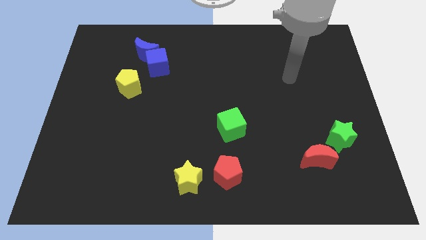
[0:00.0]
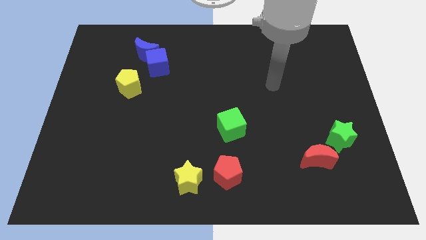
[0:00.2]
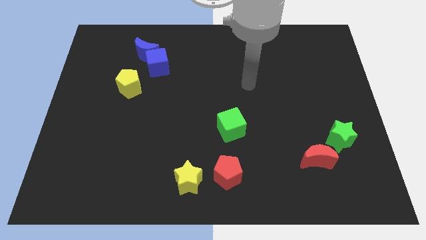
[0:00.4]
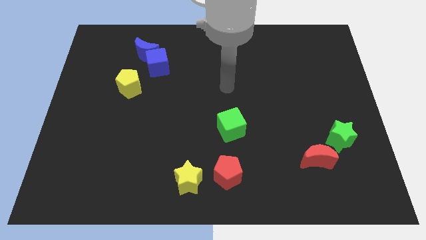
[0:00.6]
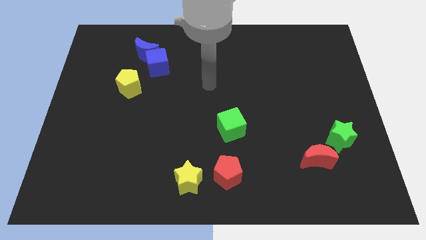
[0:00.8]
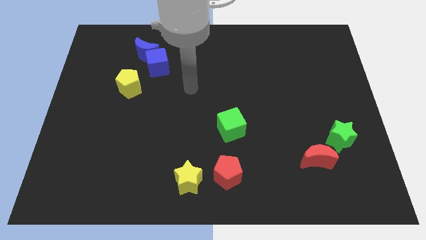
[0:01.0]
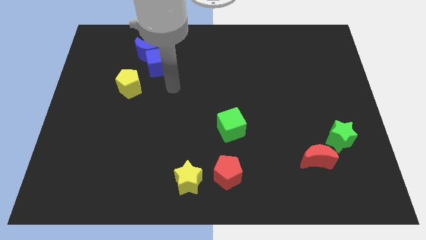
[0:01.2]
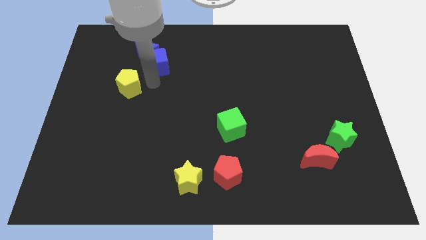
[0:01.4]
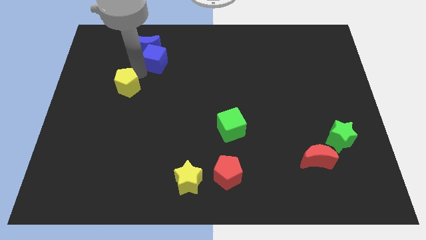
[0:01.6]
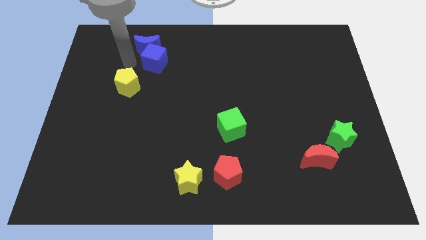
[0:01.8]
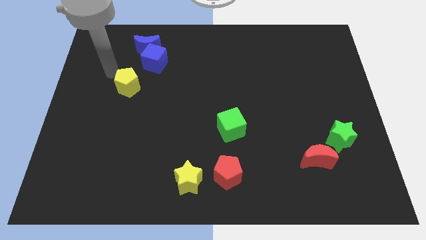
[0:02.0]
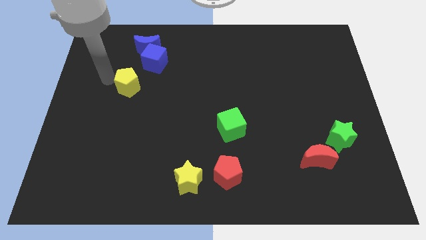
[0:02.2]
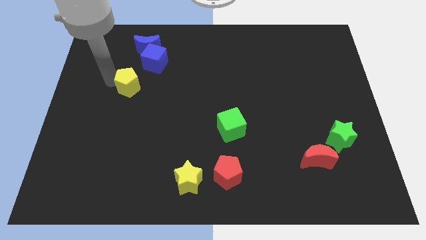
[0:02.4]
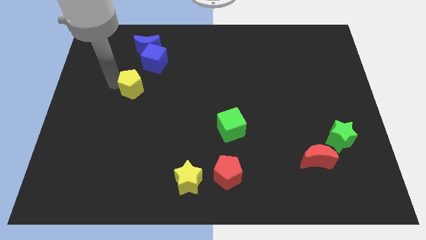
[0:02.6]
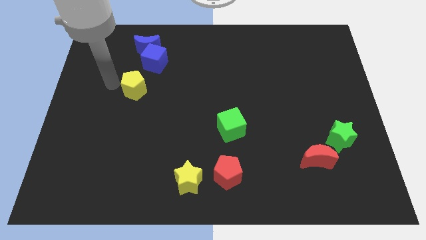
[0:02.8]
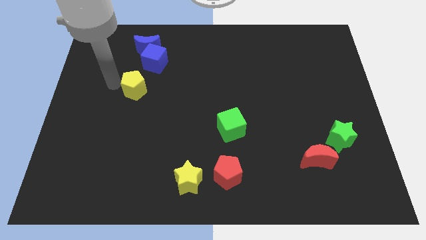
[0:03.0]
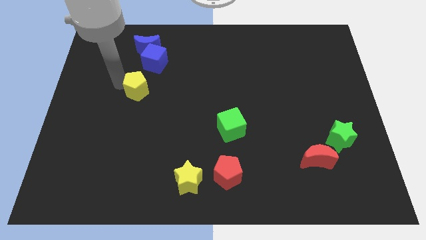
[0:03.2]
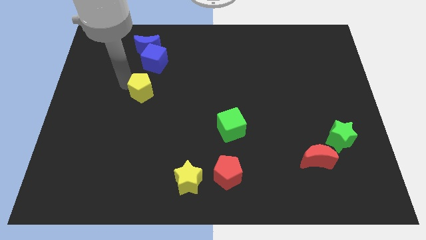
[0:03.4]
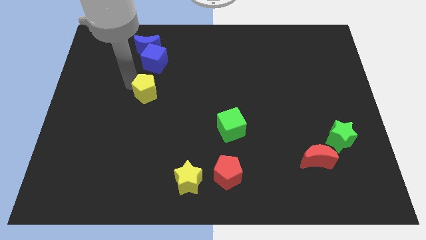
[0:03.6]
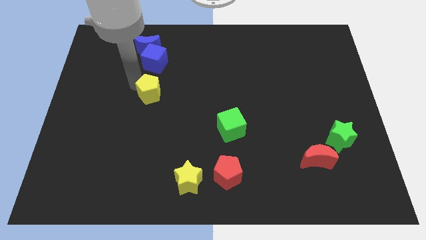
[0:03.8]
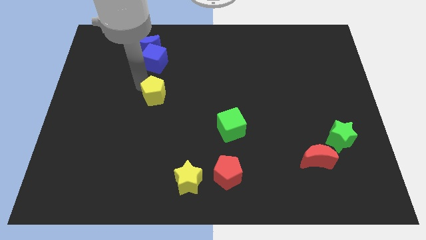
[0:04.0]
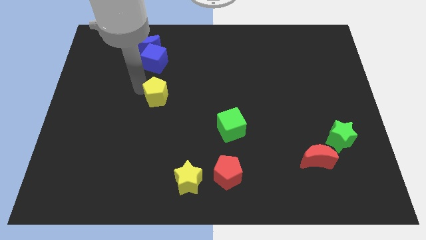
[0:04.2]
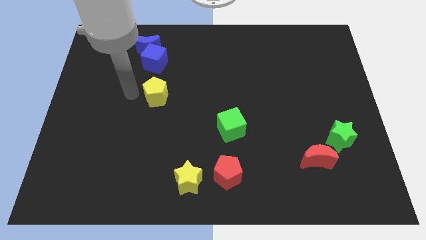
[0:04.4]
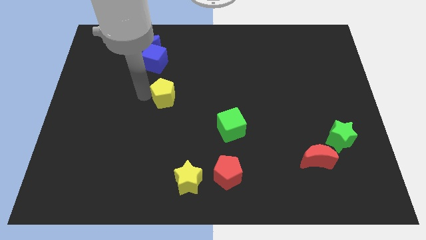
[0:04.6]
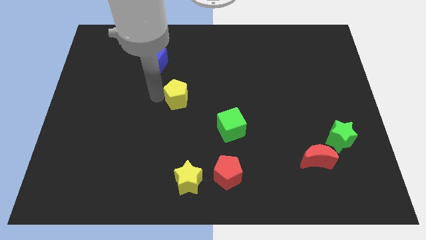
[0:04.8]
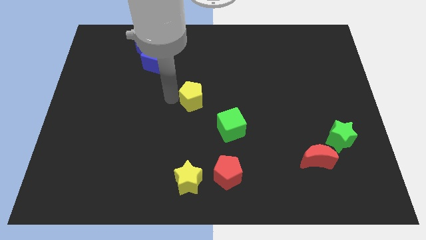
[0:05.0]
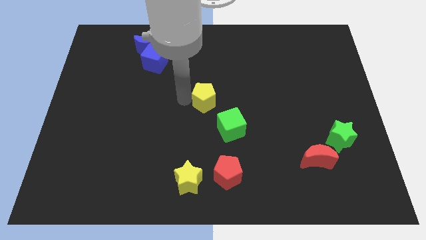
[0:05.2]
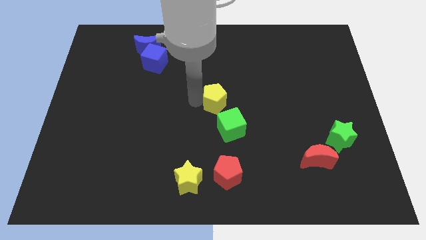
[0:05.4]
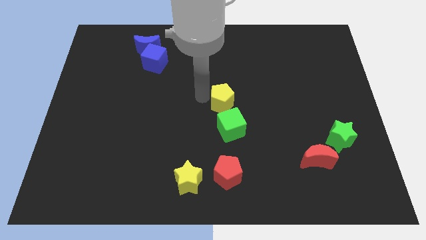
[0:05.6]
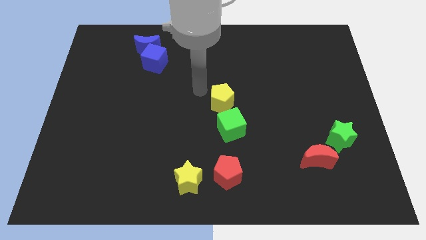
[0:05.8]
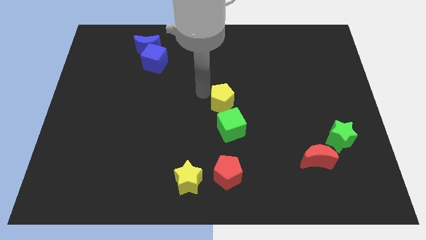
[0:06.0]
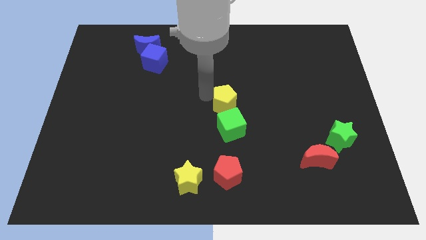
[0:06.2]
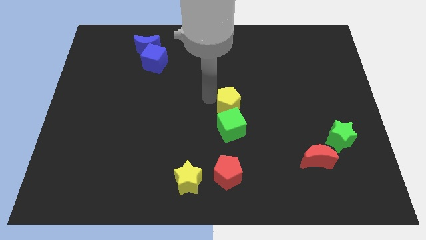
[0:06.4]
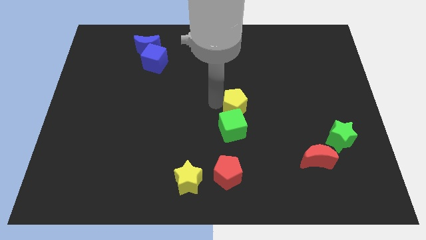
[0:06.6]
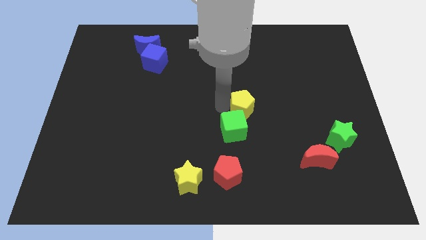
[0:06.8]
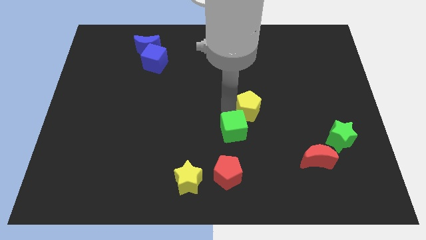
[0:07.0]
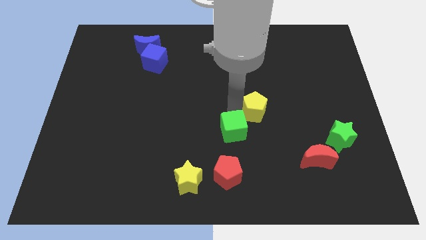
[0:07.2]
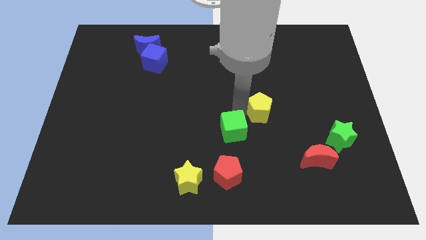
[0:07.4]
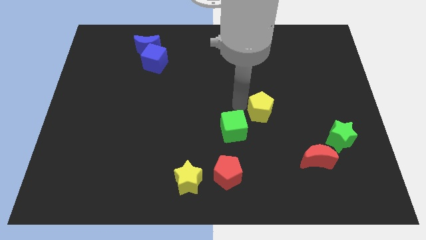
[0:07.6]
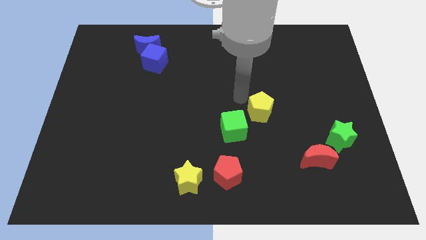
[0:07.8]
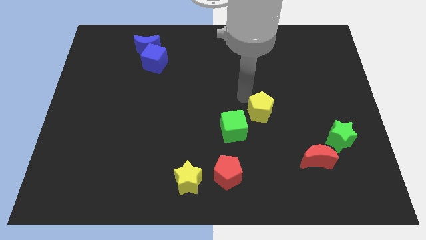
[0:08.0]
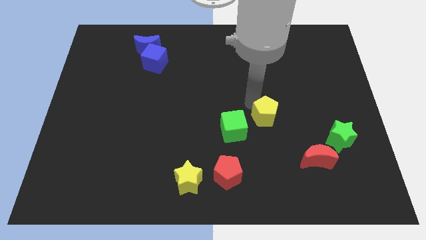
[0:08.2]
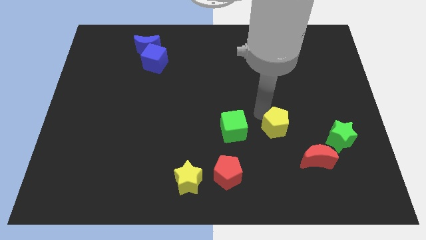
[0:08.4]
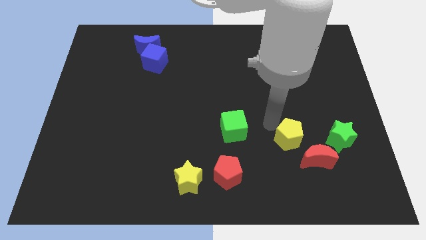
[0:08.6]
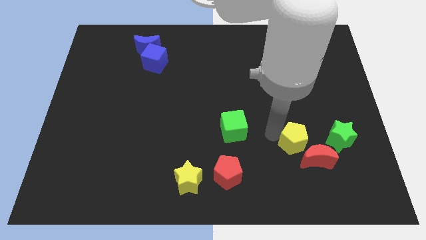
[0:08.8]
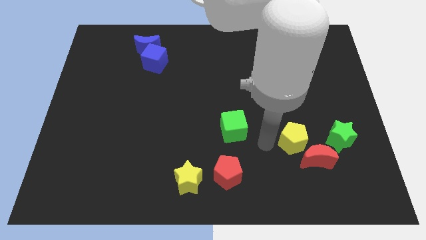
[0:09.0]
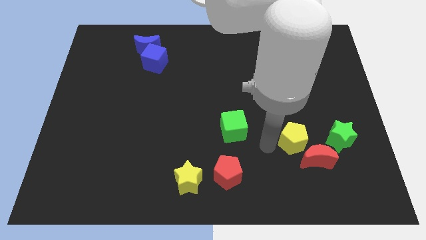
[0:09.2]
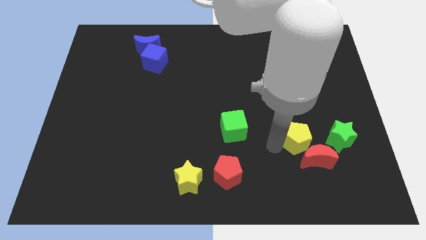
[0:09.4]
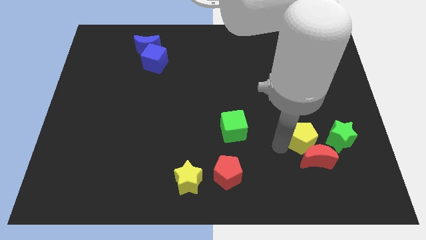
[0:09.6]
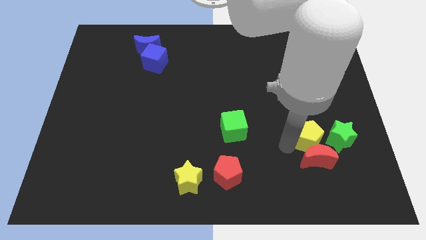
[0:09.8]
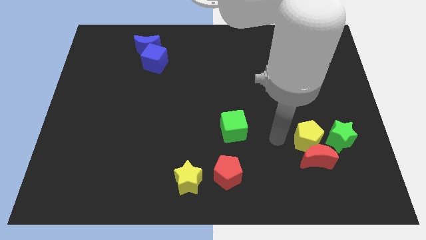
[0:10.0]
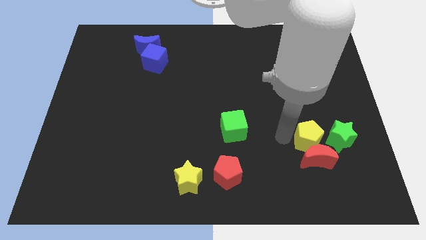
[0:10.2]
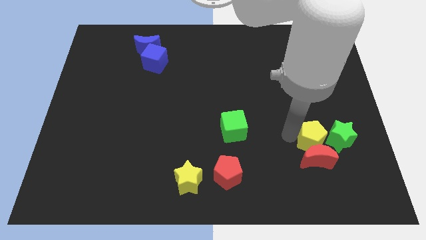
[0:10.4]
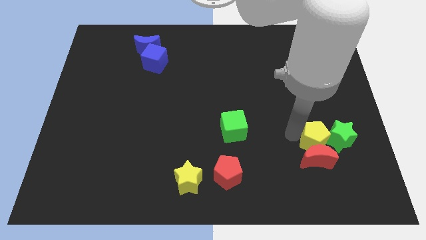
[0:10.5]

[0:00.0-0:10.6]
push the yellow pentagon towards the green star
